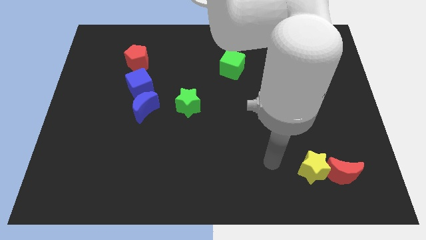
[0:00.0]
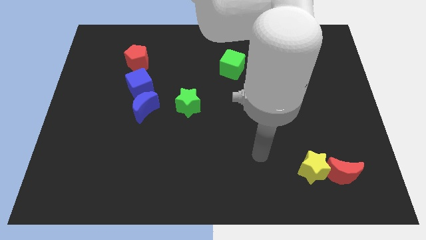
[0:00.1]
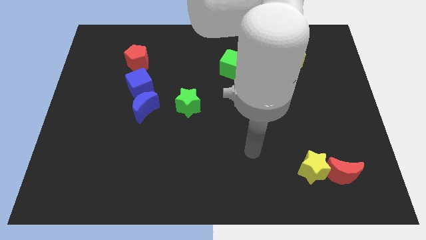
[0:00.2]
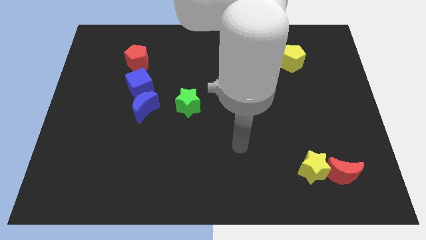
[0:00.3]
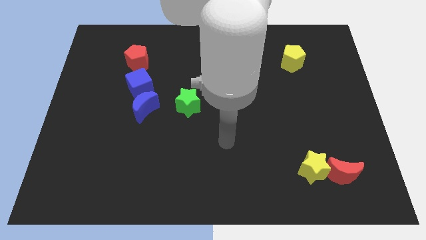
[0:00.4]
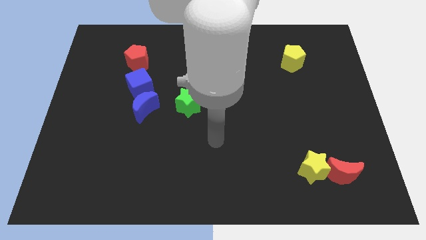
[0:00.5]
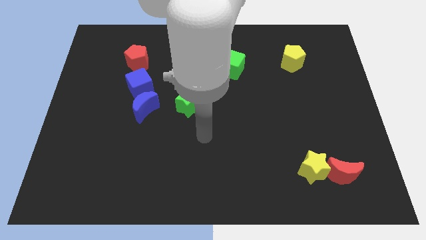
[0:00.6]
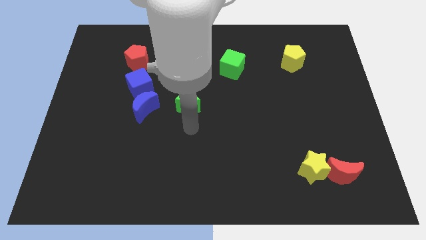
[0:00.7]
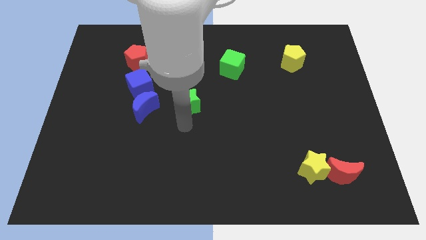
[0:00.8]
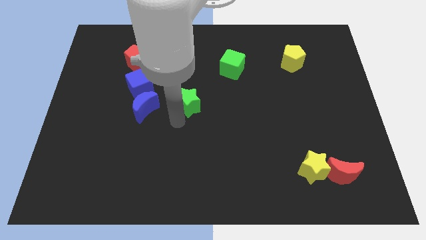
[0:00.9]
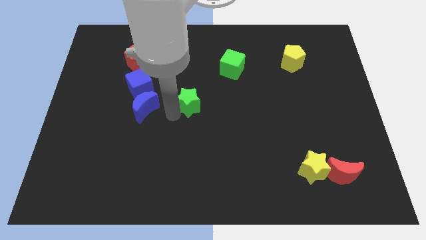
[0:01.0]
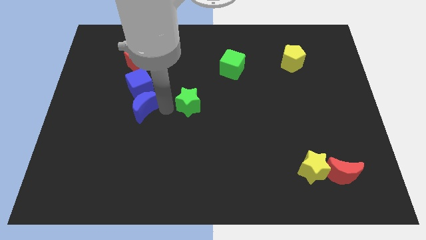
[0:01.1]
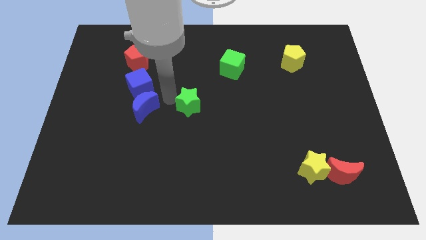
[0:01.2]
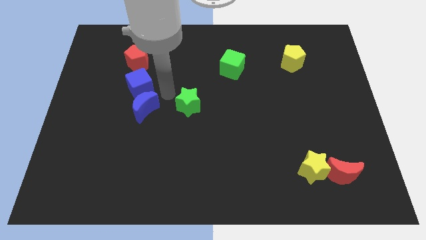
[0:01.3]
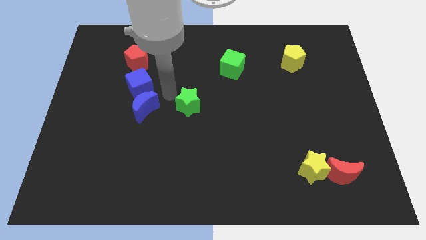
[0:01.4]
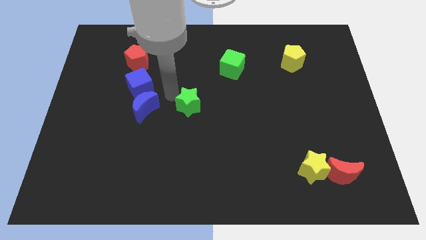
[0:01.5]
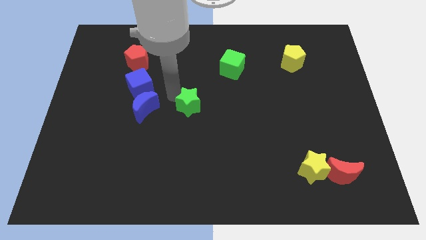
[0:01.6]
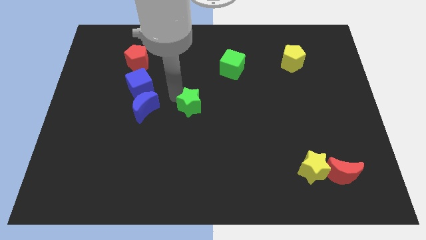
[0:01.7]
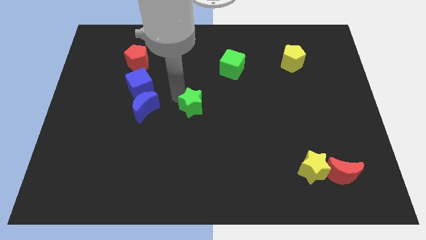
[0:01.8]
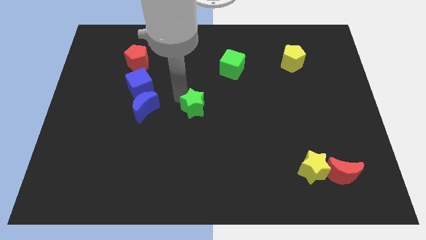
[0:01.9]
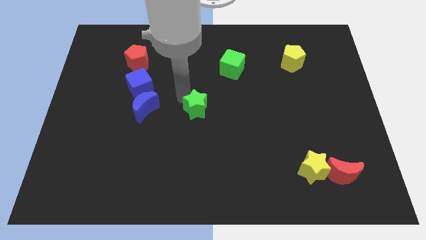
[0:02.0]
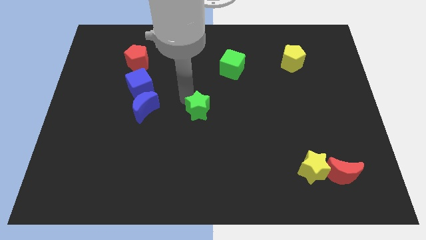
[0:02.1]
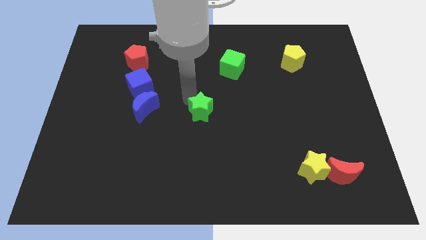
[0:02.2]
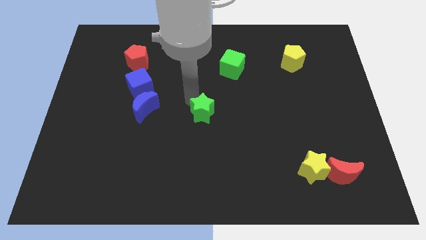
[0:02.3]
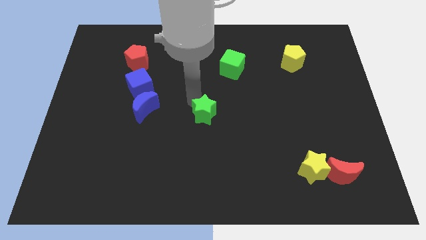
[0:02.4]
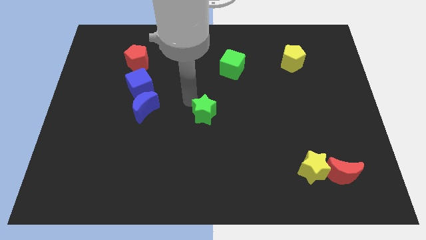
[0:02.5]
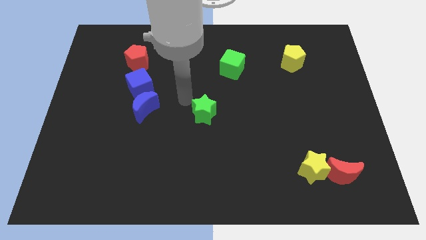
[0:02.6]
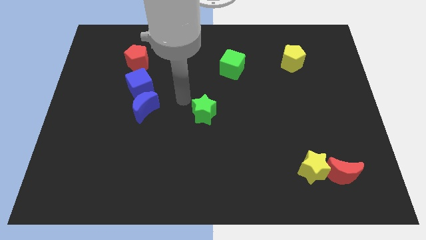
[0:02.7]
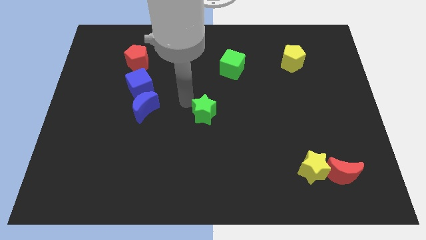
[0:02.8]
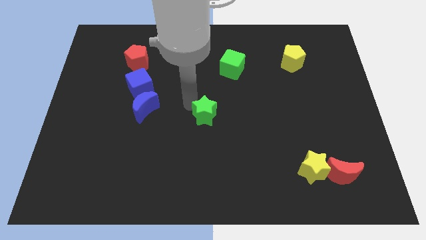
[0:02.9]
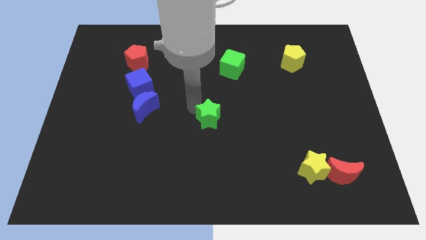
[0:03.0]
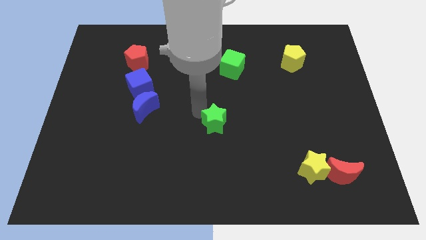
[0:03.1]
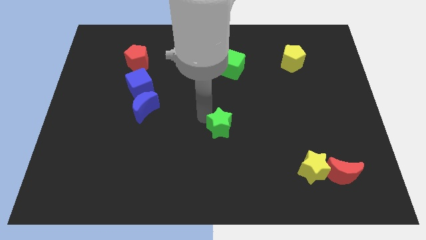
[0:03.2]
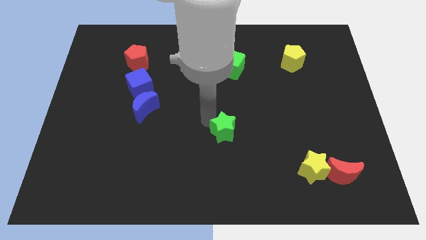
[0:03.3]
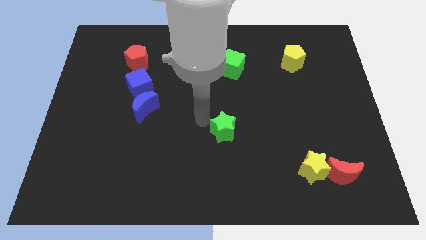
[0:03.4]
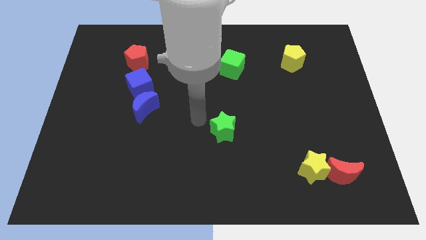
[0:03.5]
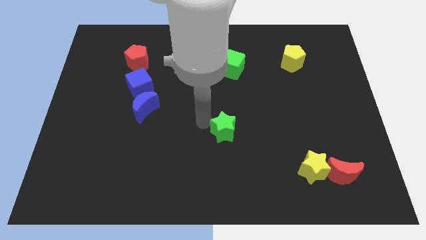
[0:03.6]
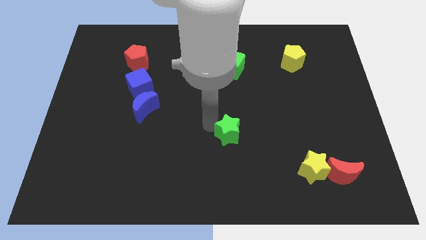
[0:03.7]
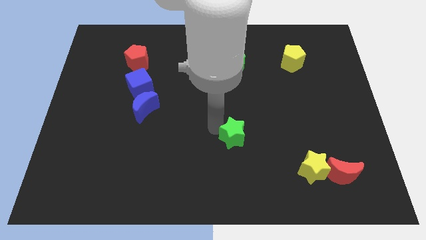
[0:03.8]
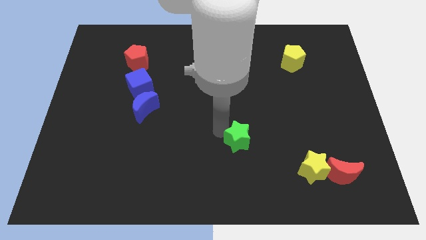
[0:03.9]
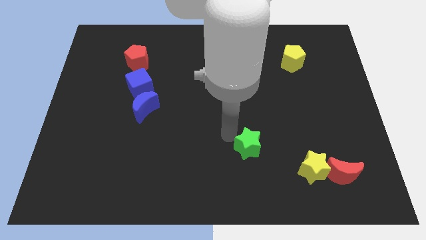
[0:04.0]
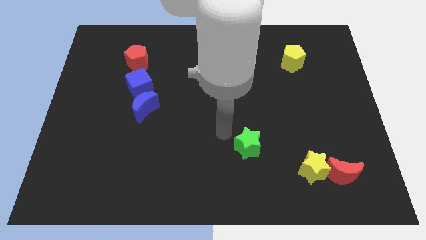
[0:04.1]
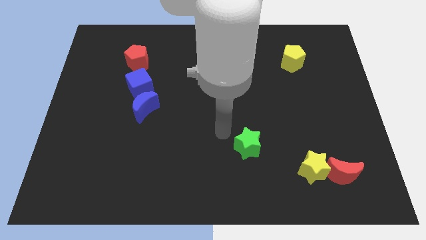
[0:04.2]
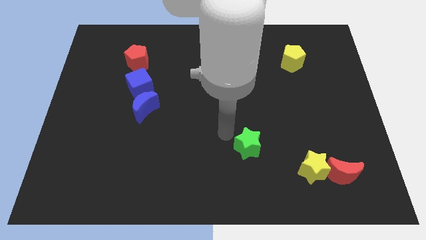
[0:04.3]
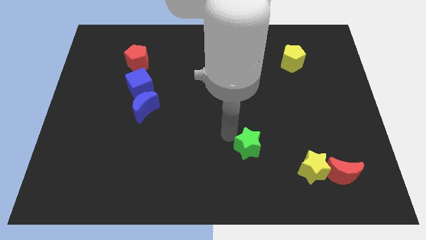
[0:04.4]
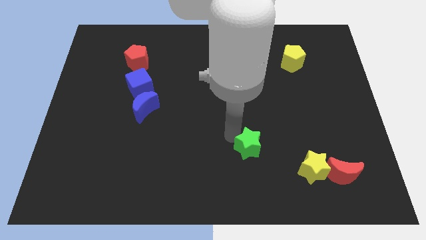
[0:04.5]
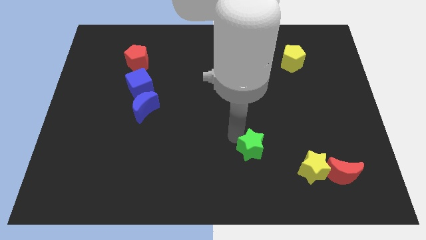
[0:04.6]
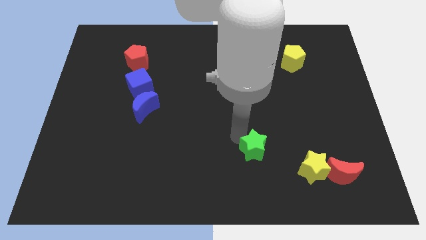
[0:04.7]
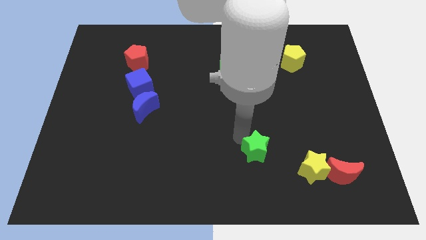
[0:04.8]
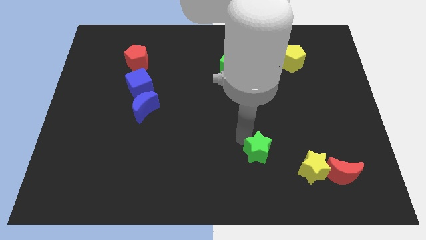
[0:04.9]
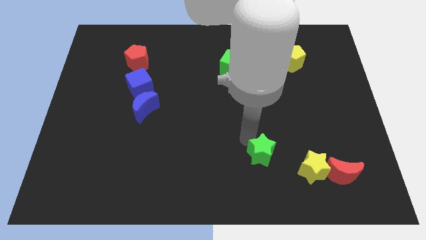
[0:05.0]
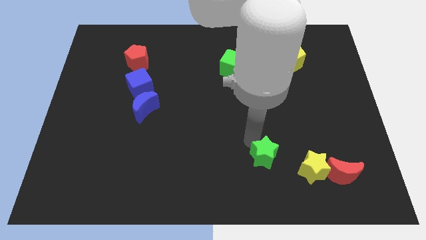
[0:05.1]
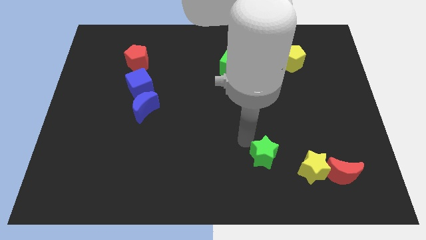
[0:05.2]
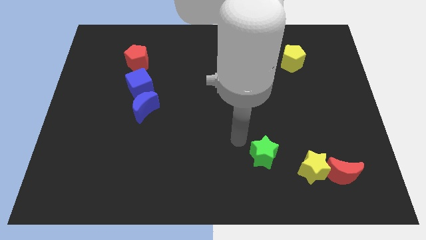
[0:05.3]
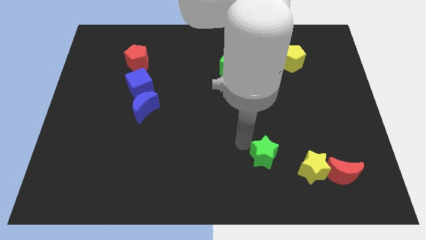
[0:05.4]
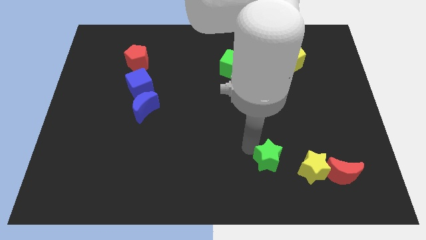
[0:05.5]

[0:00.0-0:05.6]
push the green star to the left side of the red moon

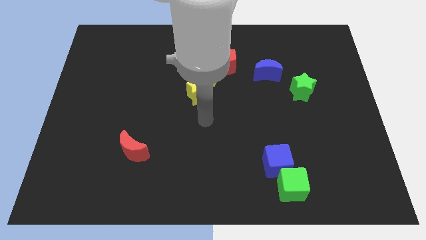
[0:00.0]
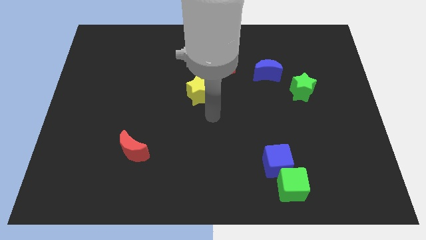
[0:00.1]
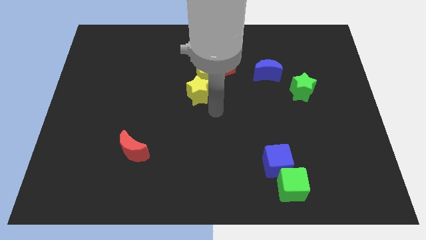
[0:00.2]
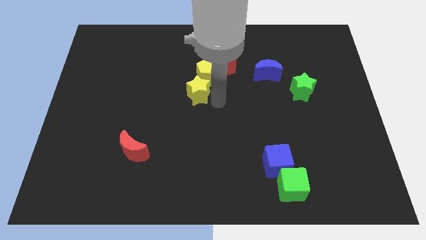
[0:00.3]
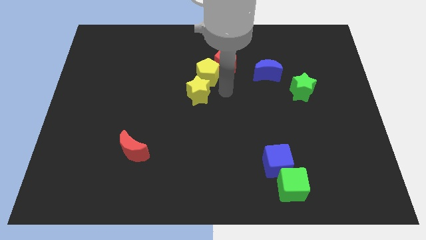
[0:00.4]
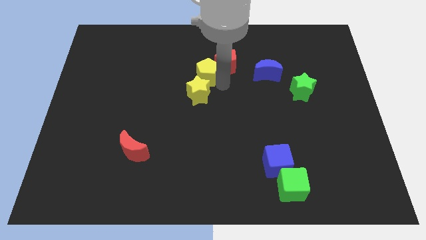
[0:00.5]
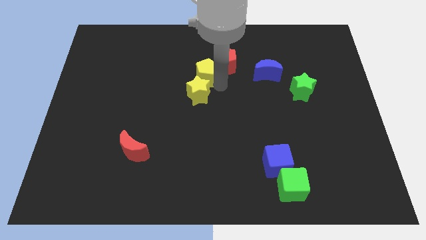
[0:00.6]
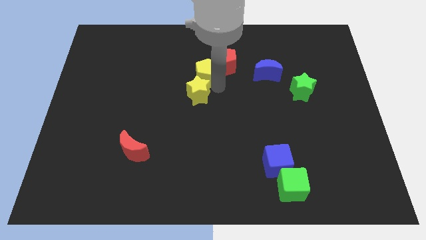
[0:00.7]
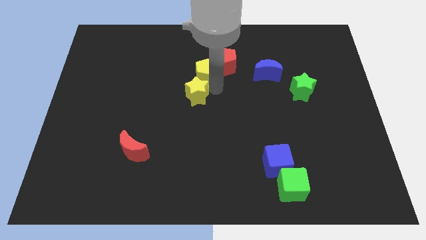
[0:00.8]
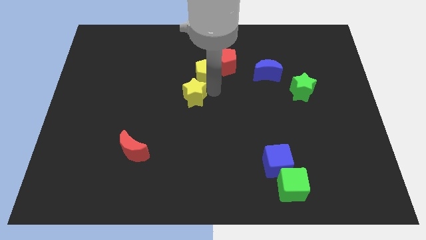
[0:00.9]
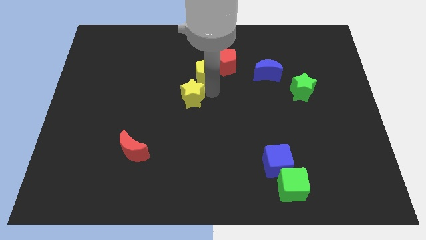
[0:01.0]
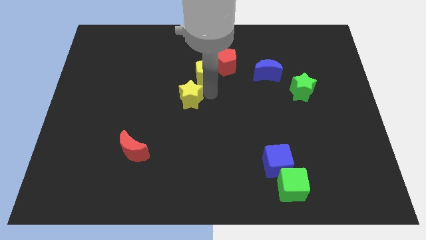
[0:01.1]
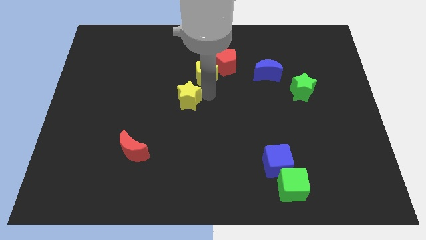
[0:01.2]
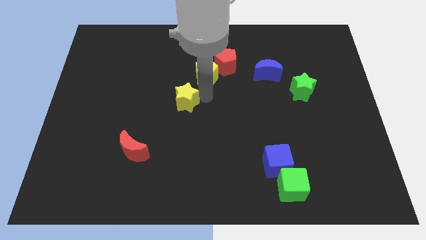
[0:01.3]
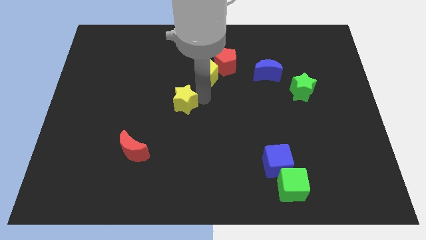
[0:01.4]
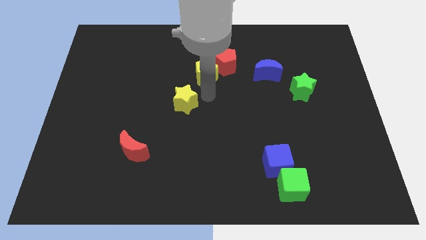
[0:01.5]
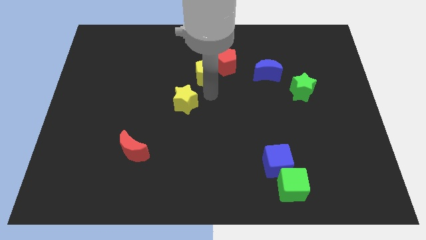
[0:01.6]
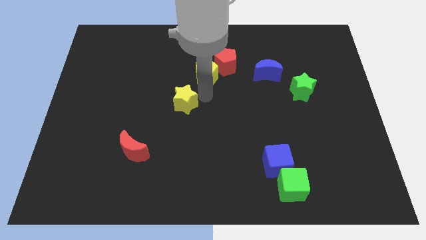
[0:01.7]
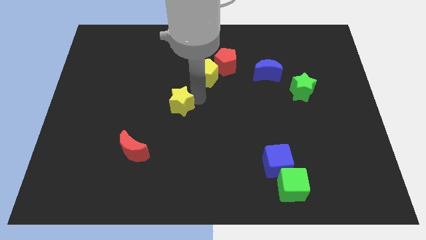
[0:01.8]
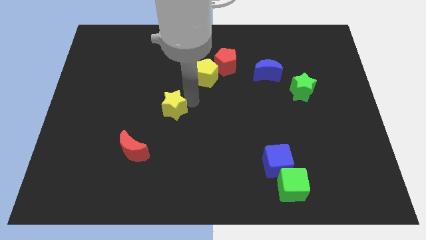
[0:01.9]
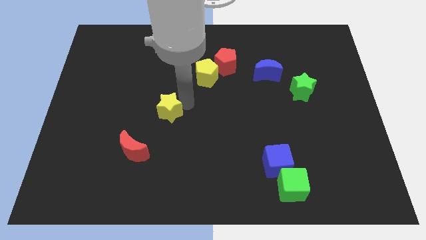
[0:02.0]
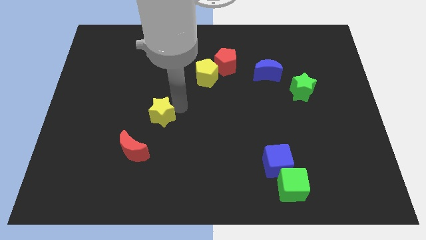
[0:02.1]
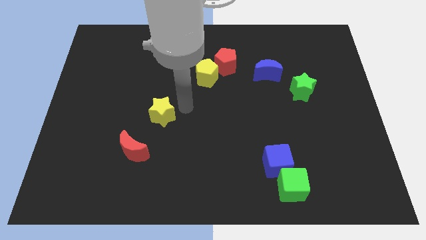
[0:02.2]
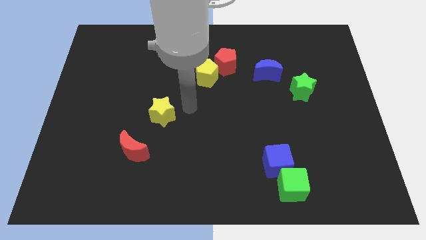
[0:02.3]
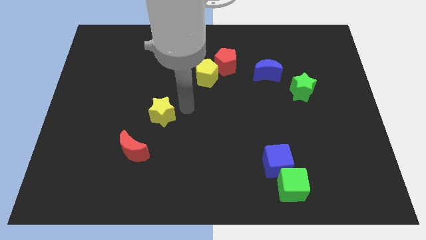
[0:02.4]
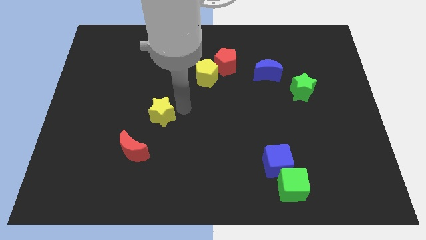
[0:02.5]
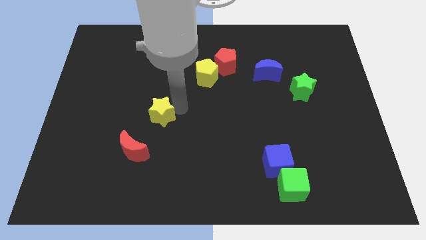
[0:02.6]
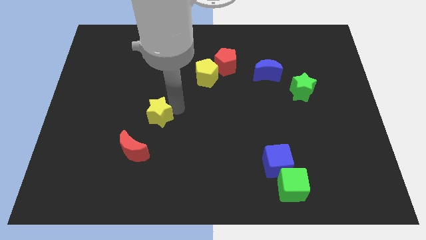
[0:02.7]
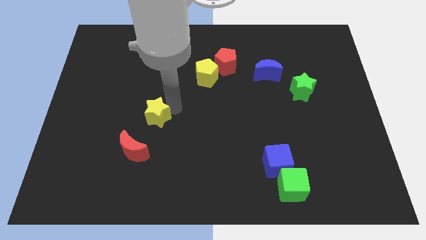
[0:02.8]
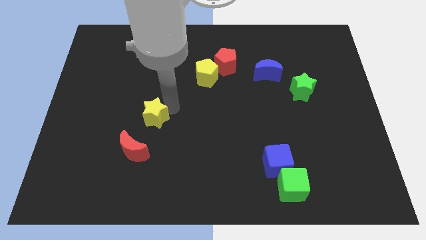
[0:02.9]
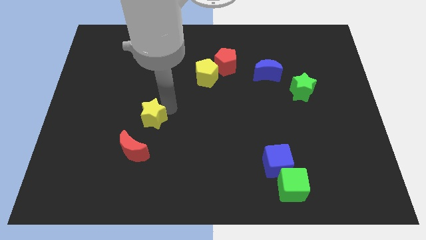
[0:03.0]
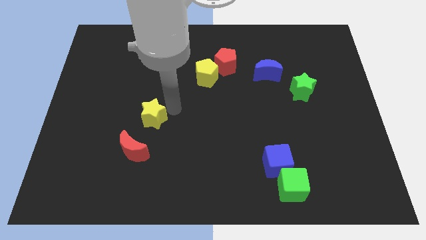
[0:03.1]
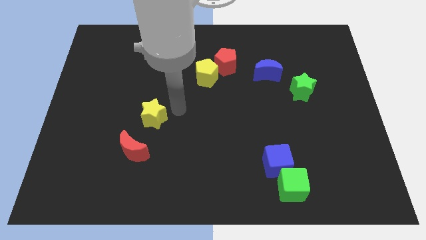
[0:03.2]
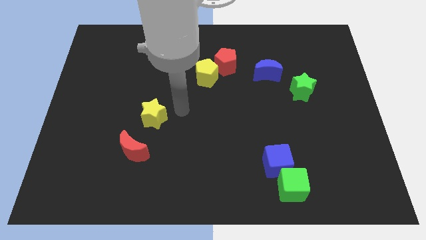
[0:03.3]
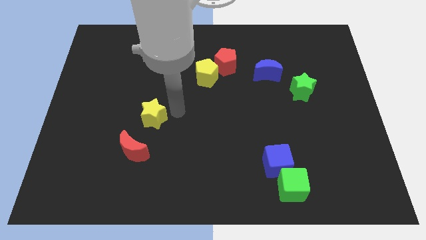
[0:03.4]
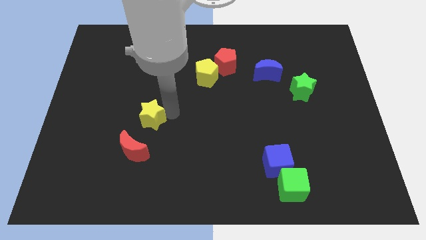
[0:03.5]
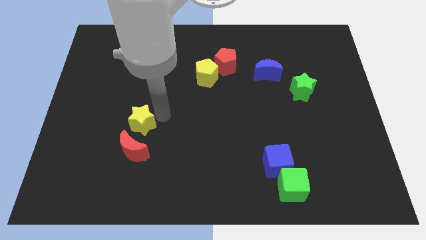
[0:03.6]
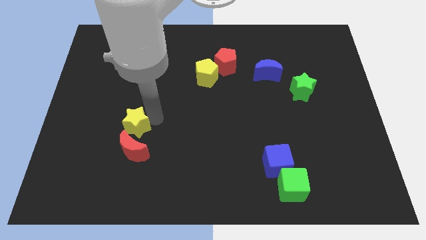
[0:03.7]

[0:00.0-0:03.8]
put the yellow star to the top left side of the red moon
